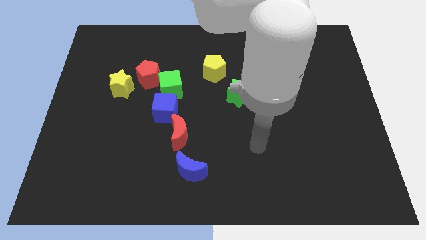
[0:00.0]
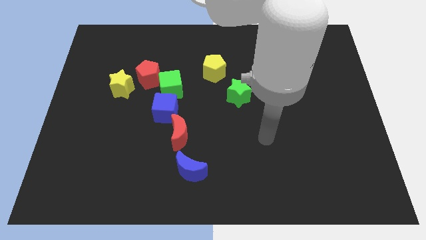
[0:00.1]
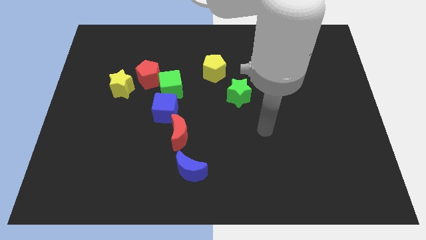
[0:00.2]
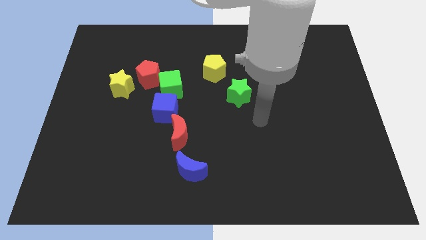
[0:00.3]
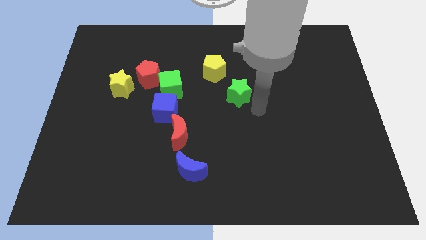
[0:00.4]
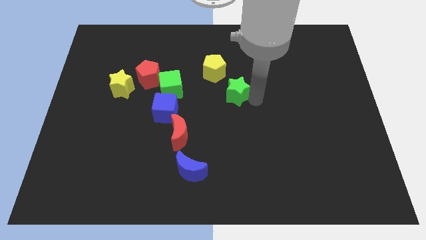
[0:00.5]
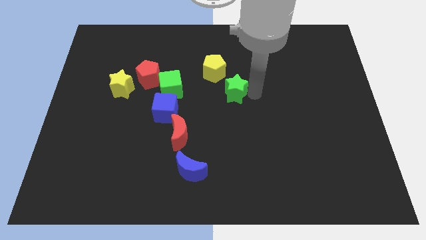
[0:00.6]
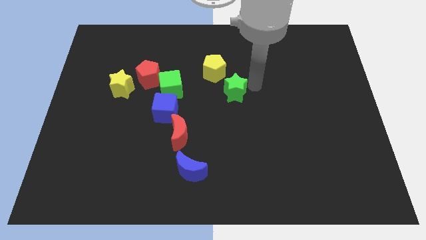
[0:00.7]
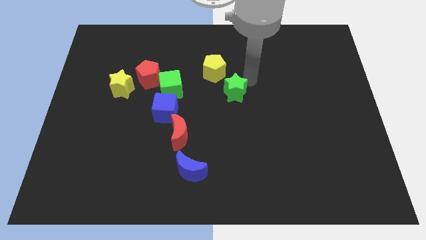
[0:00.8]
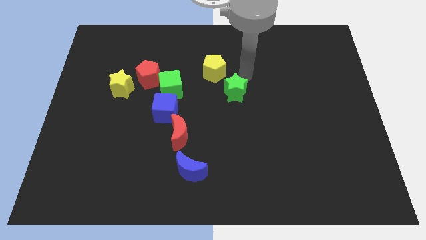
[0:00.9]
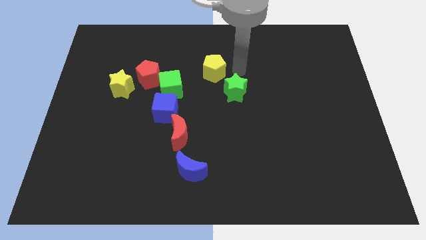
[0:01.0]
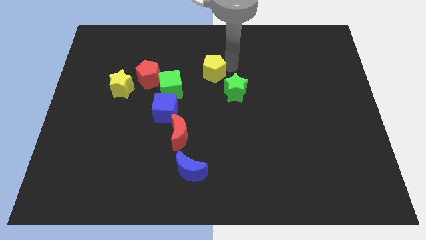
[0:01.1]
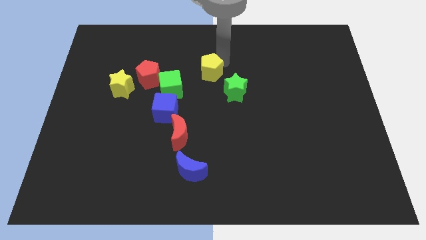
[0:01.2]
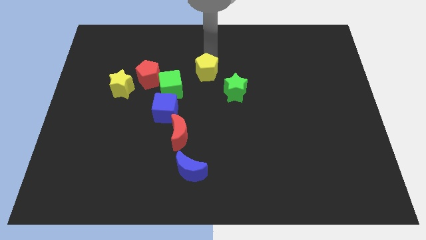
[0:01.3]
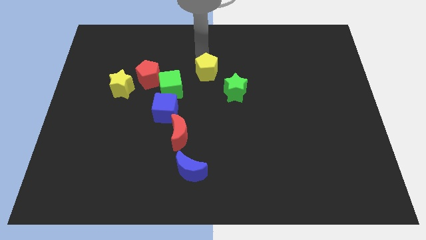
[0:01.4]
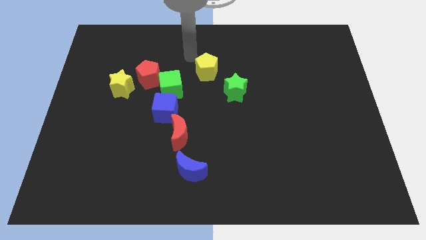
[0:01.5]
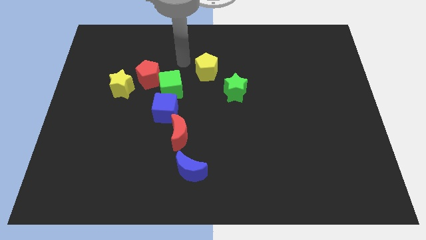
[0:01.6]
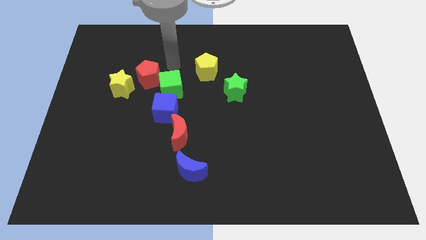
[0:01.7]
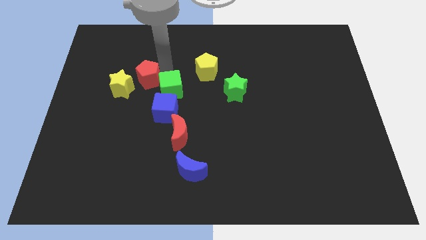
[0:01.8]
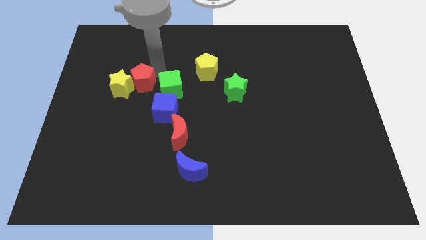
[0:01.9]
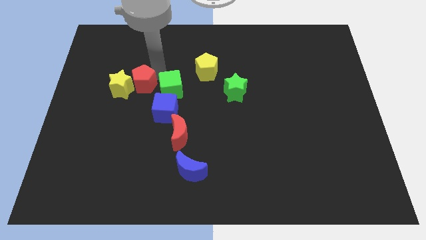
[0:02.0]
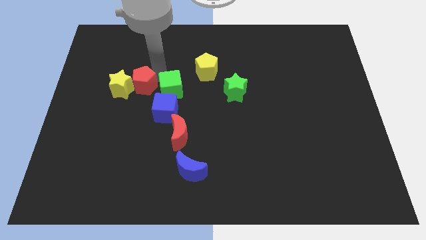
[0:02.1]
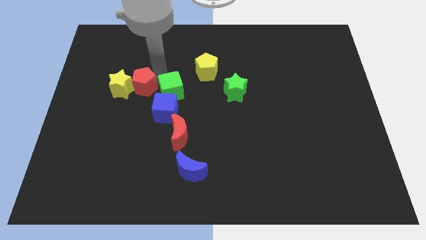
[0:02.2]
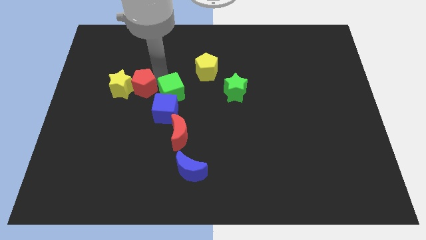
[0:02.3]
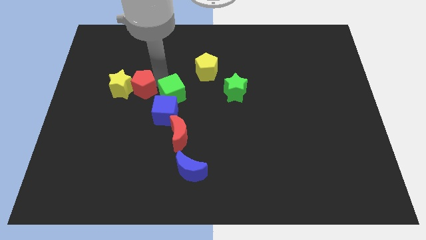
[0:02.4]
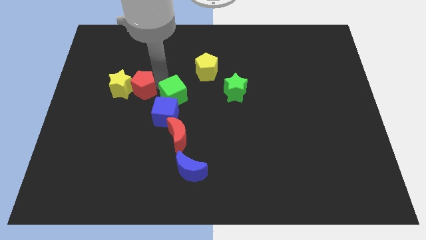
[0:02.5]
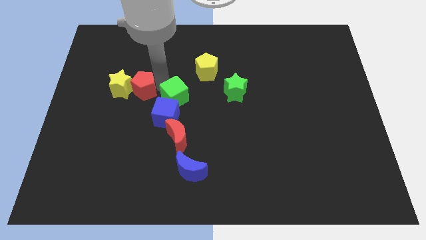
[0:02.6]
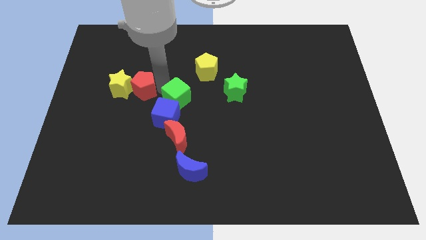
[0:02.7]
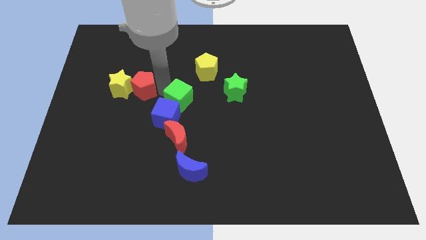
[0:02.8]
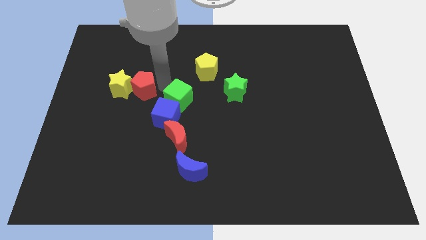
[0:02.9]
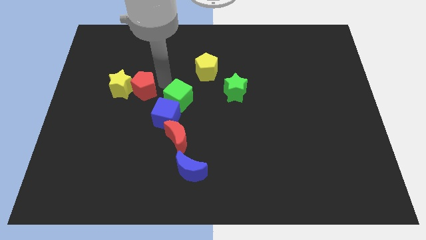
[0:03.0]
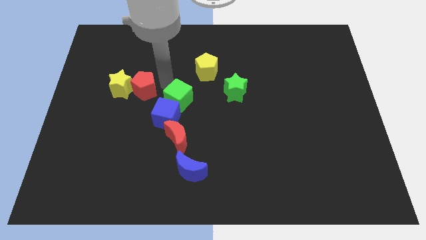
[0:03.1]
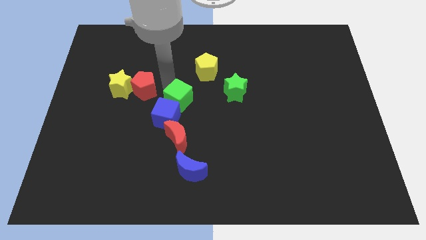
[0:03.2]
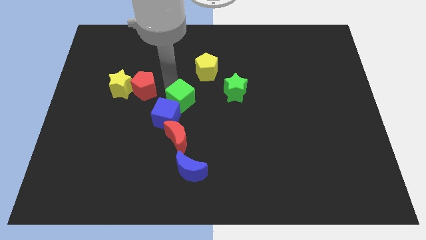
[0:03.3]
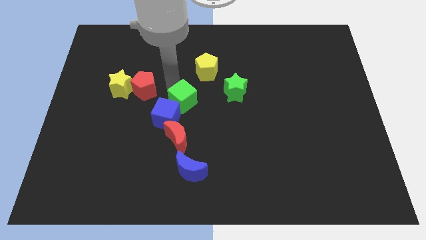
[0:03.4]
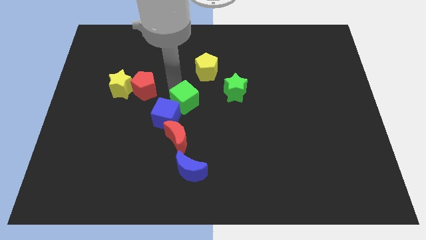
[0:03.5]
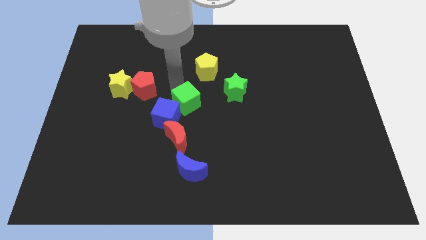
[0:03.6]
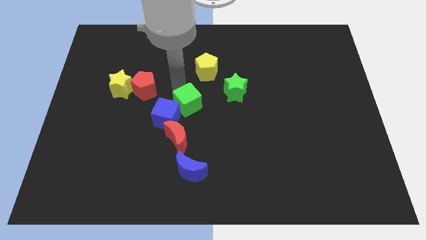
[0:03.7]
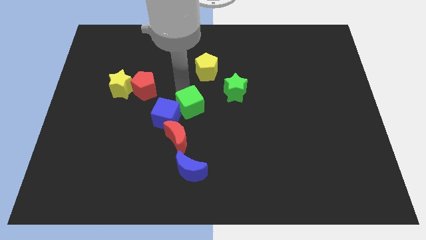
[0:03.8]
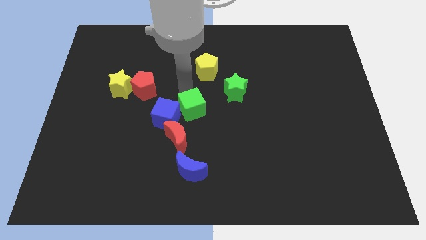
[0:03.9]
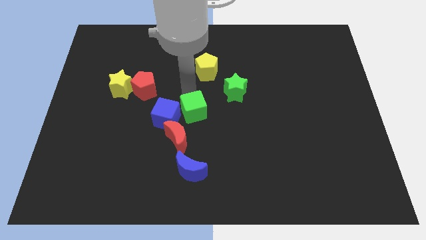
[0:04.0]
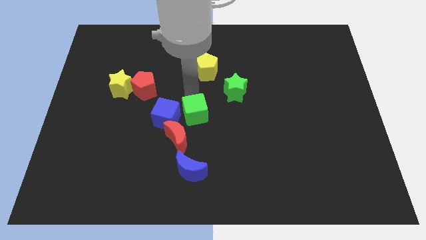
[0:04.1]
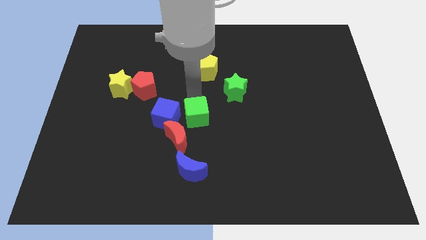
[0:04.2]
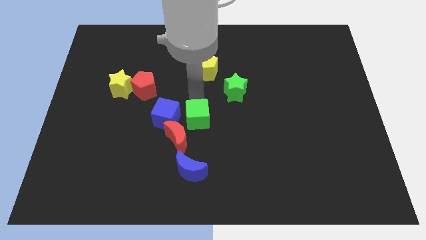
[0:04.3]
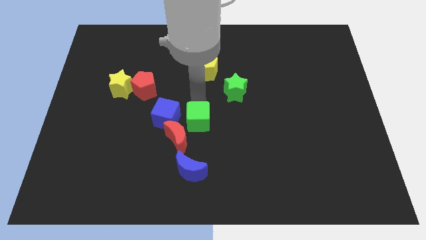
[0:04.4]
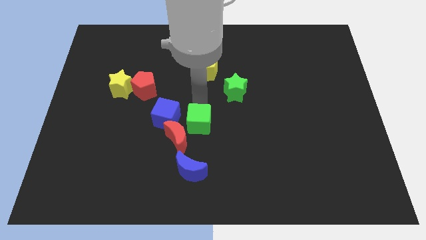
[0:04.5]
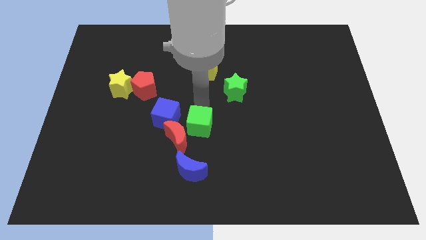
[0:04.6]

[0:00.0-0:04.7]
put the green cube next to the red moon

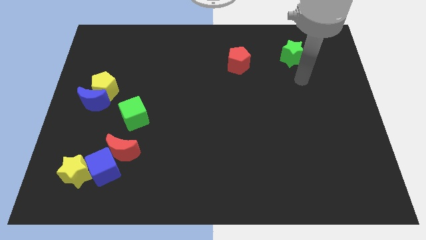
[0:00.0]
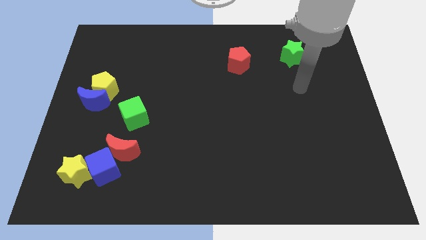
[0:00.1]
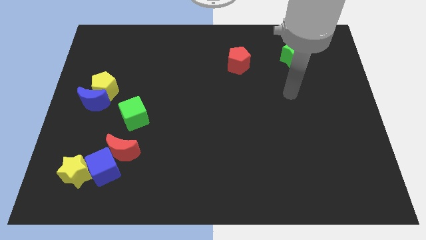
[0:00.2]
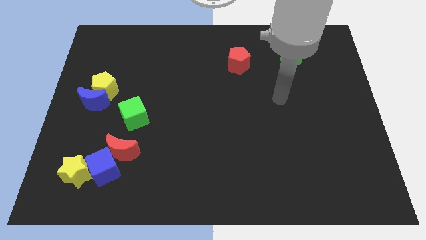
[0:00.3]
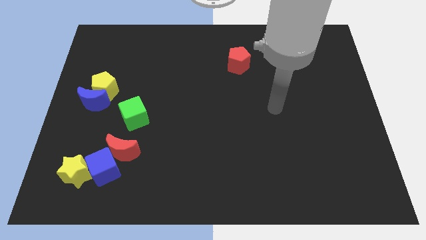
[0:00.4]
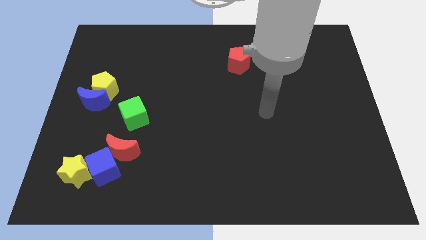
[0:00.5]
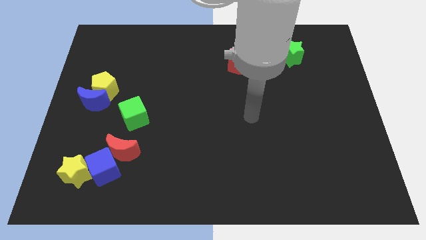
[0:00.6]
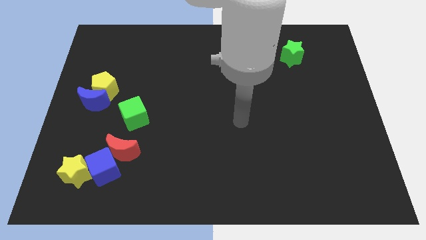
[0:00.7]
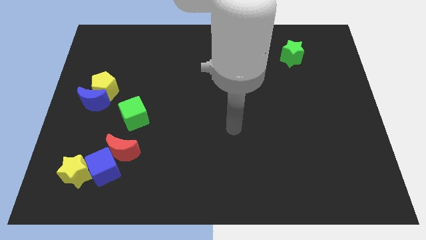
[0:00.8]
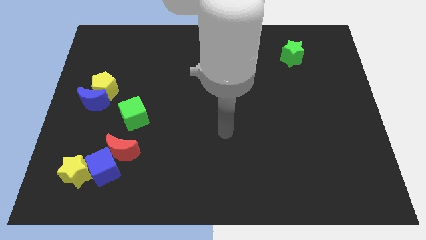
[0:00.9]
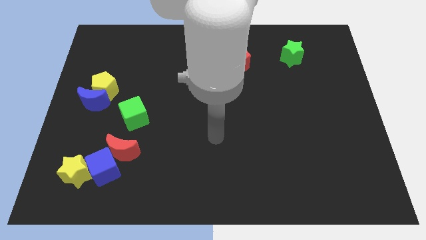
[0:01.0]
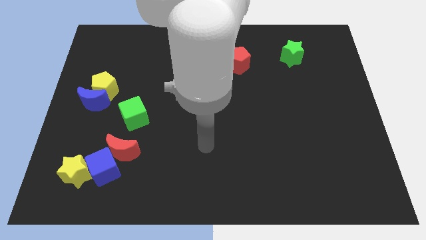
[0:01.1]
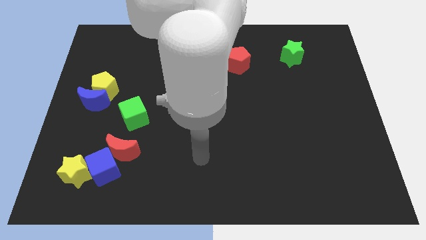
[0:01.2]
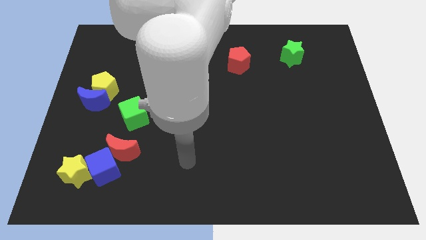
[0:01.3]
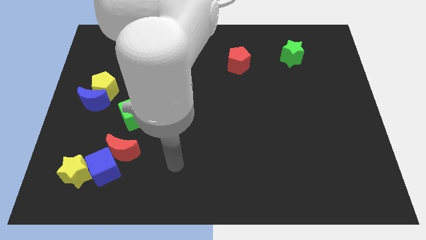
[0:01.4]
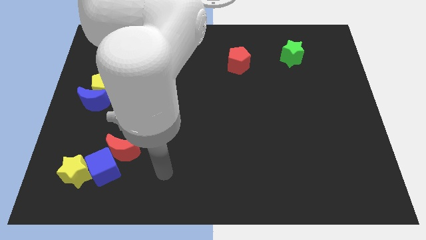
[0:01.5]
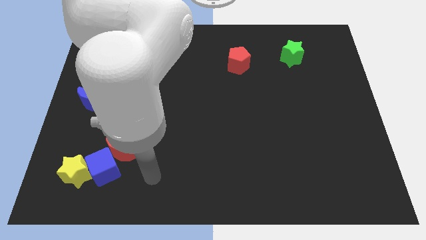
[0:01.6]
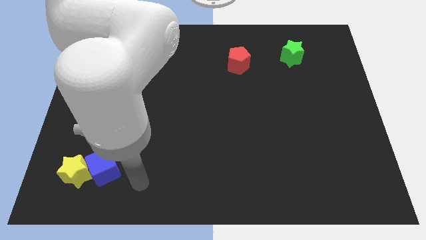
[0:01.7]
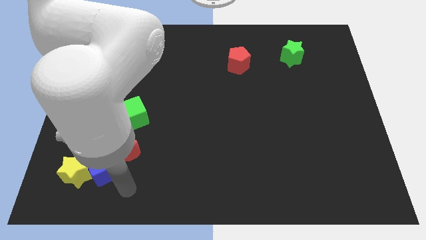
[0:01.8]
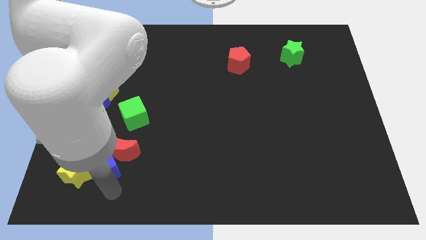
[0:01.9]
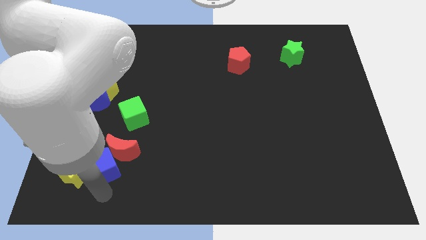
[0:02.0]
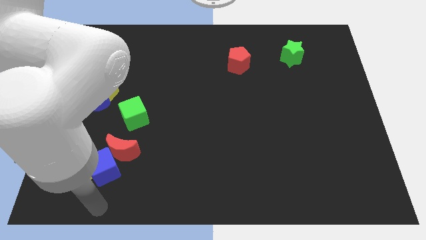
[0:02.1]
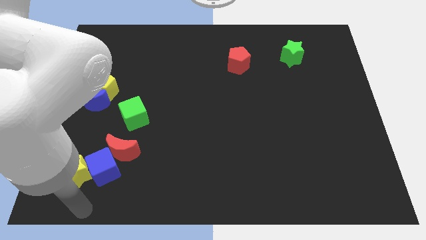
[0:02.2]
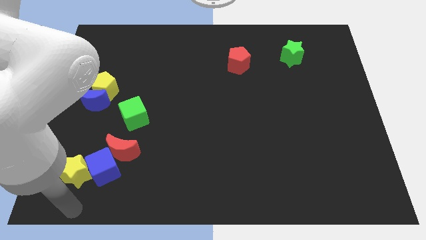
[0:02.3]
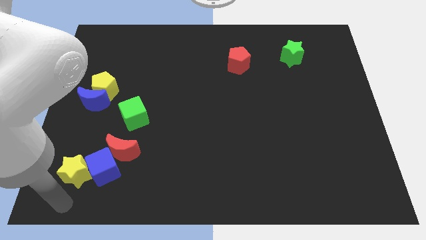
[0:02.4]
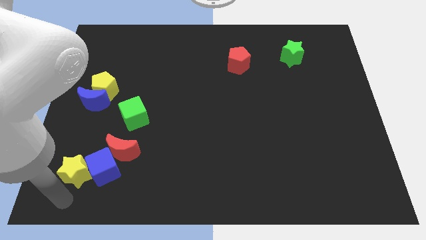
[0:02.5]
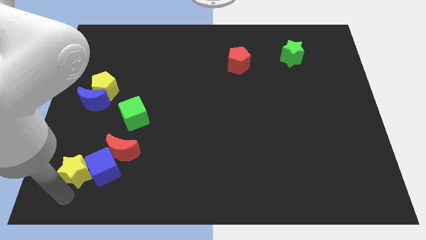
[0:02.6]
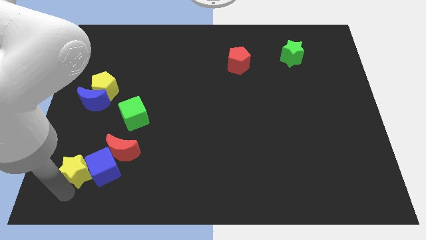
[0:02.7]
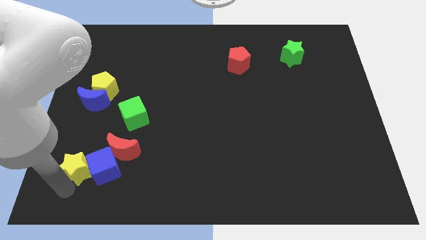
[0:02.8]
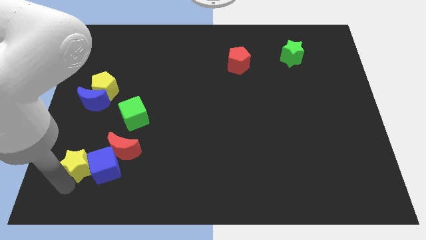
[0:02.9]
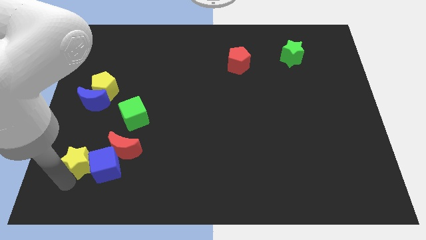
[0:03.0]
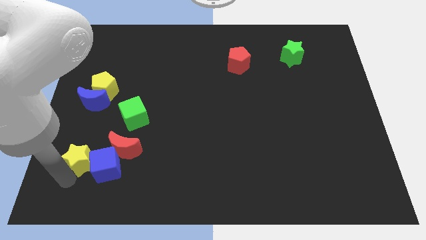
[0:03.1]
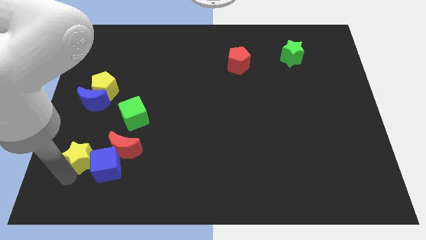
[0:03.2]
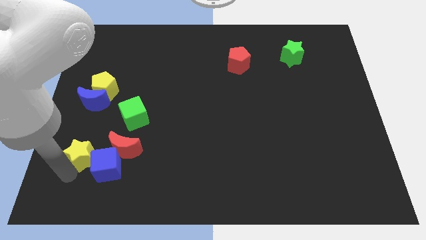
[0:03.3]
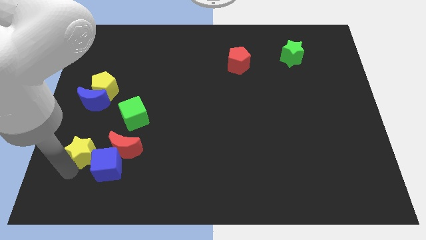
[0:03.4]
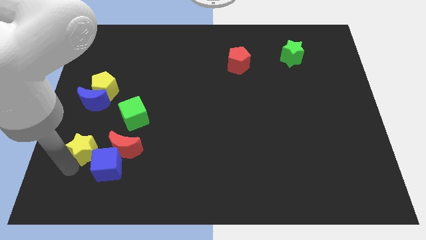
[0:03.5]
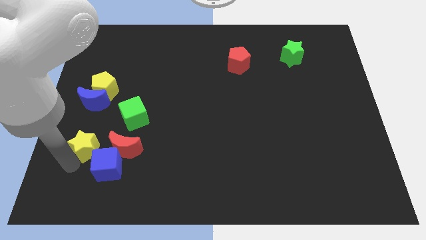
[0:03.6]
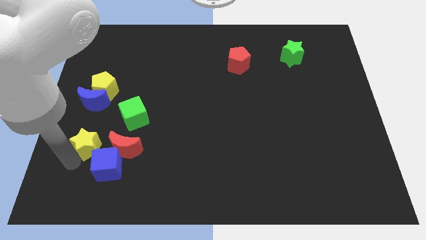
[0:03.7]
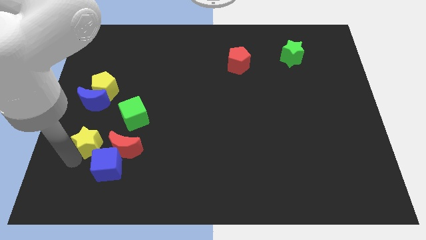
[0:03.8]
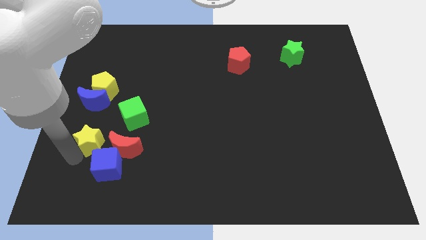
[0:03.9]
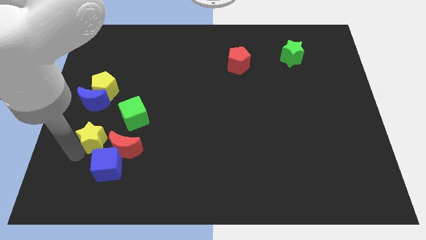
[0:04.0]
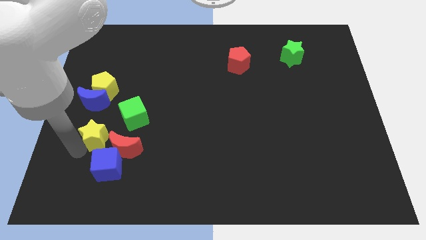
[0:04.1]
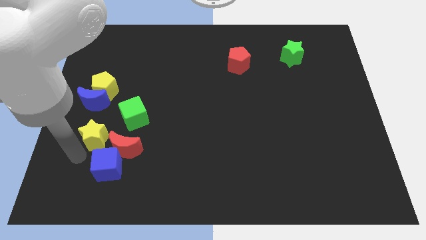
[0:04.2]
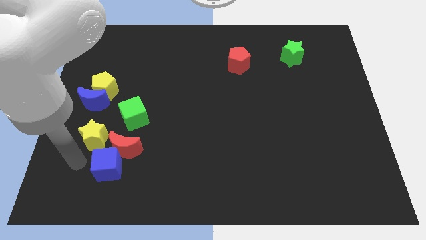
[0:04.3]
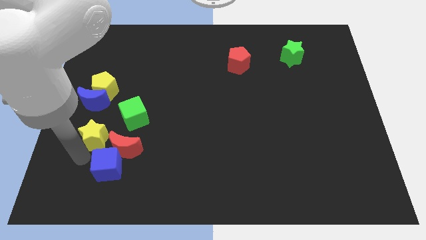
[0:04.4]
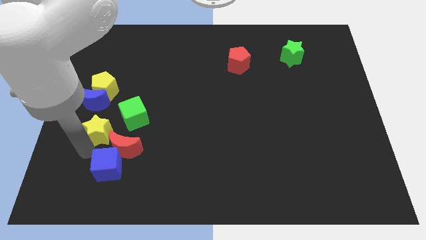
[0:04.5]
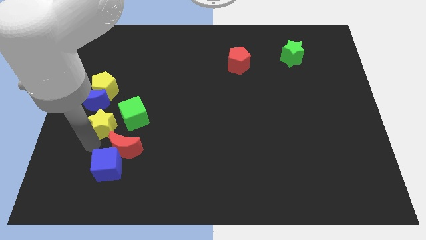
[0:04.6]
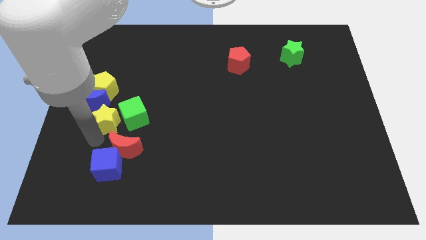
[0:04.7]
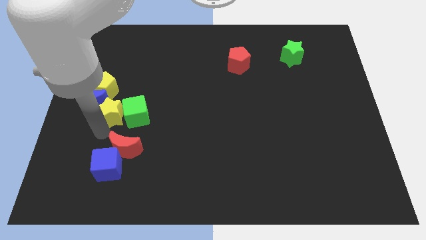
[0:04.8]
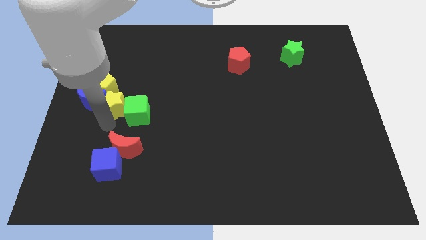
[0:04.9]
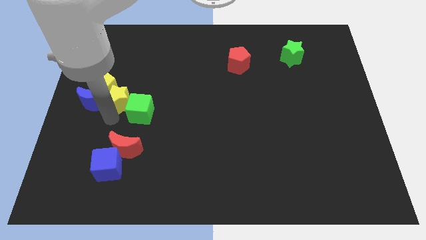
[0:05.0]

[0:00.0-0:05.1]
slide the yellow star to the yellow pentagon
